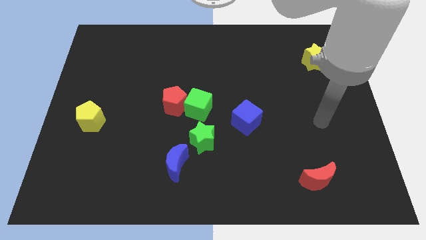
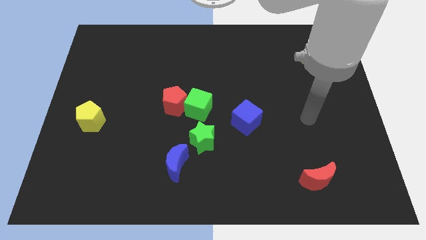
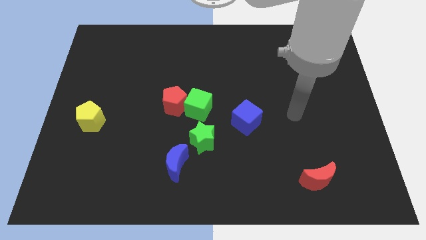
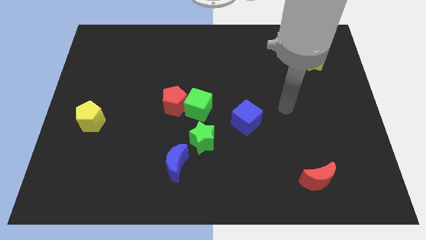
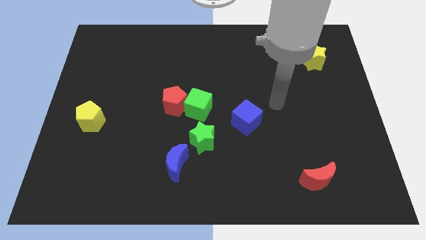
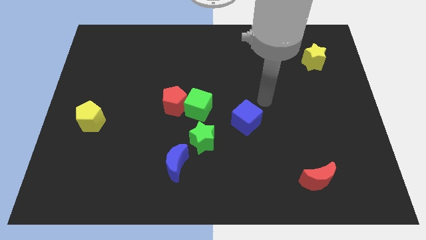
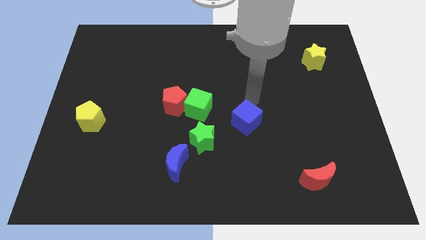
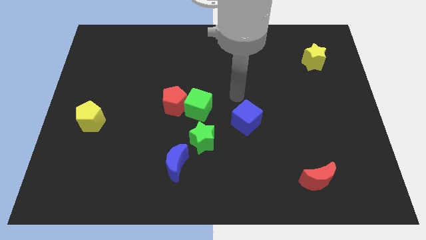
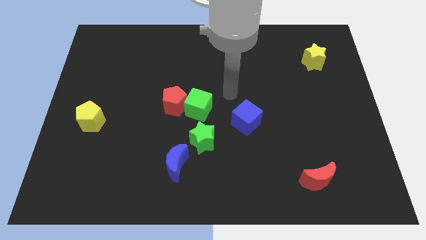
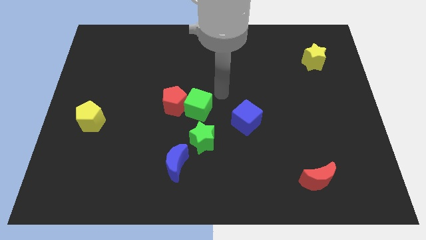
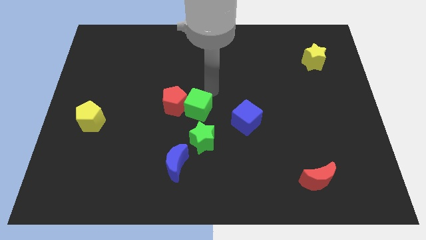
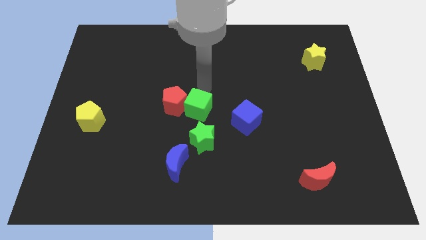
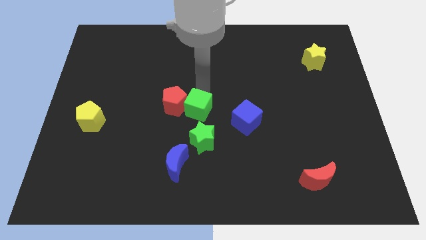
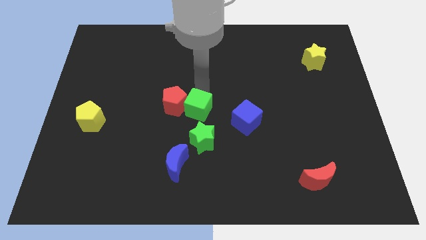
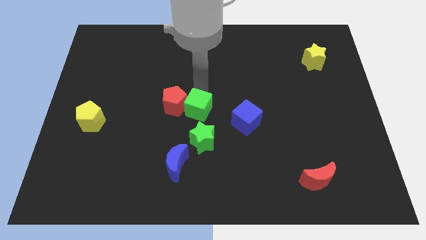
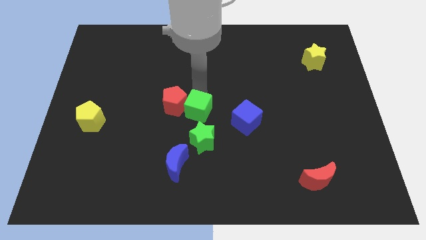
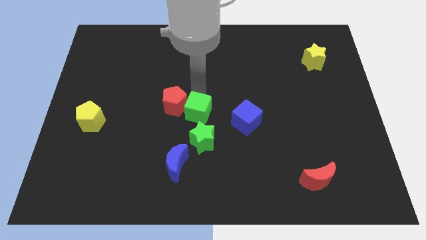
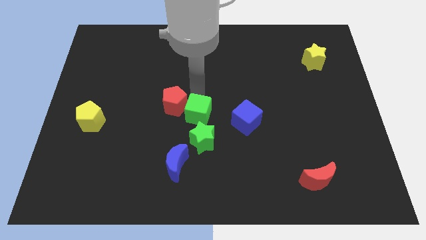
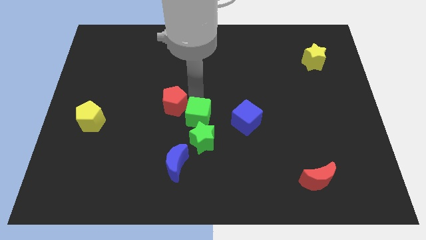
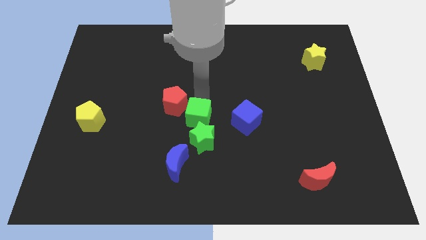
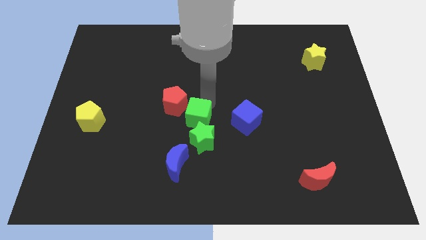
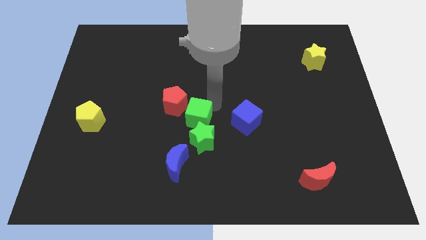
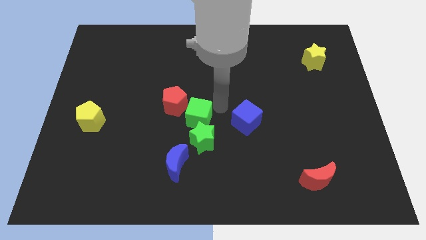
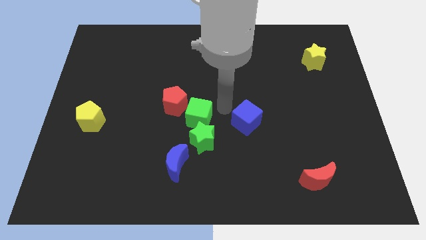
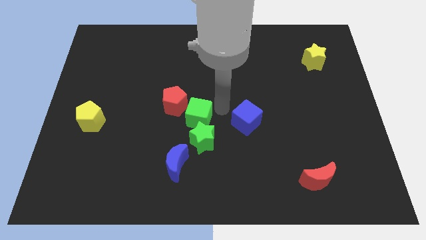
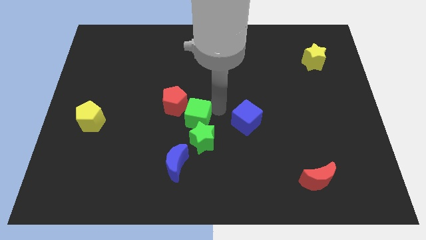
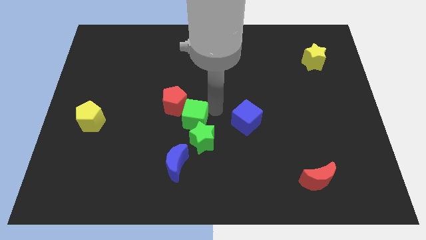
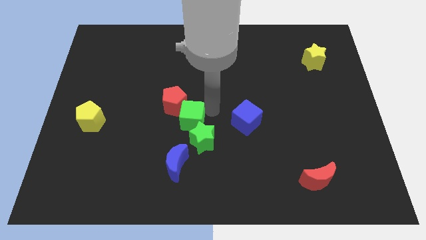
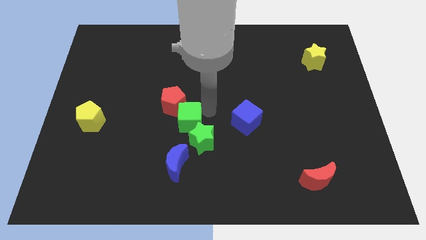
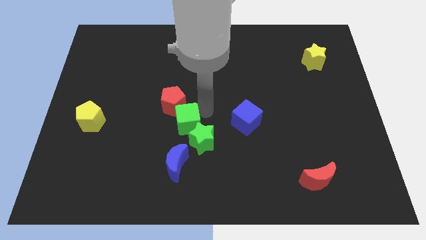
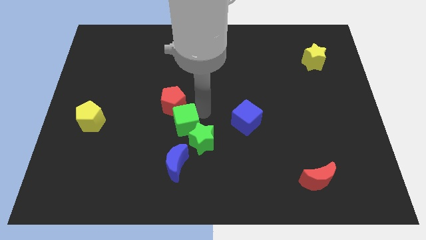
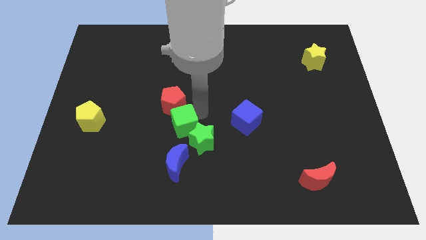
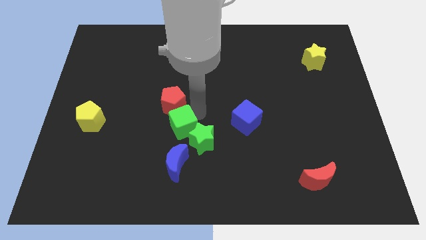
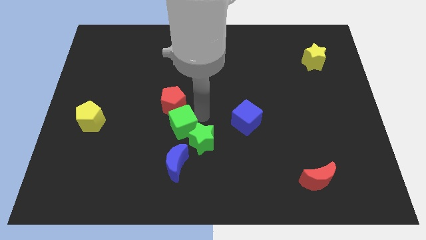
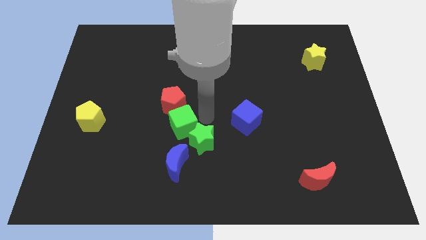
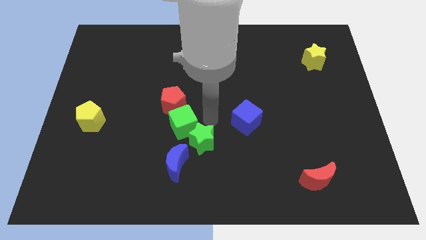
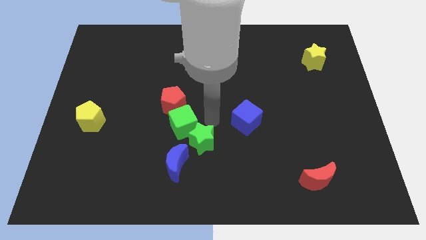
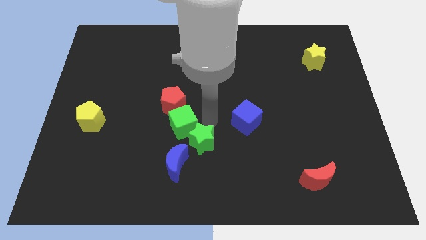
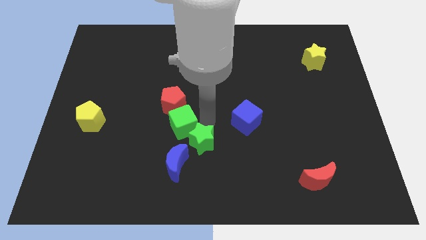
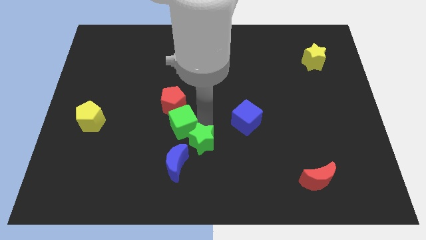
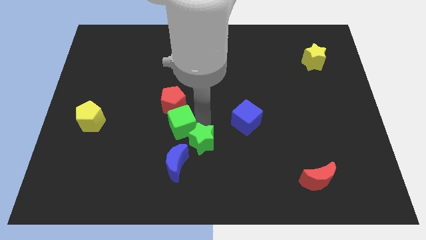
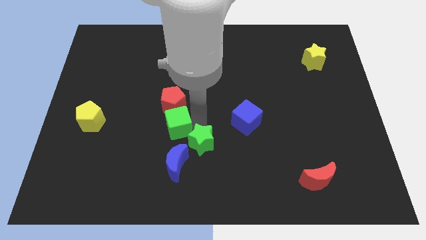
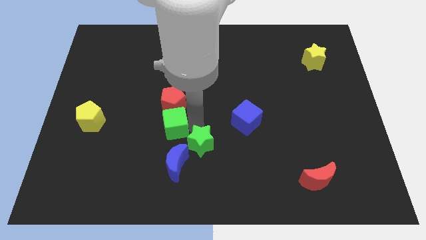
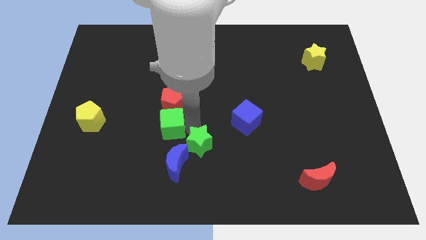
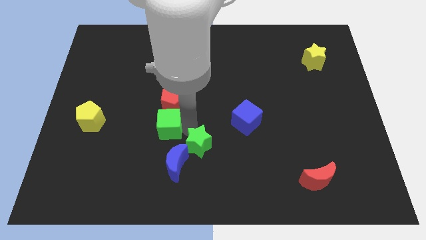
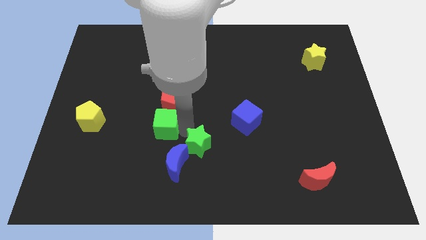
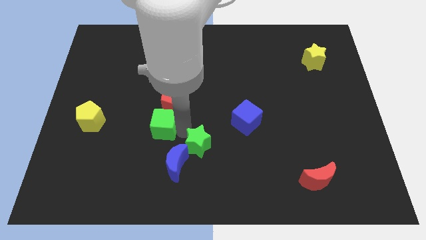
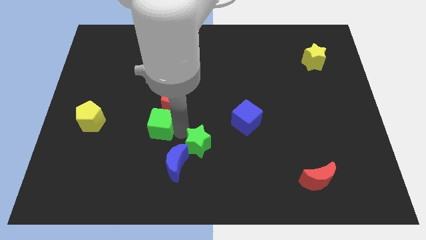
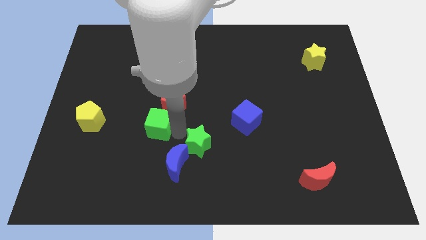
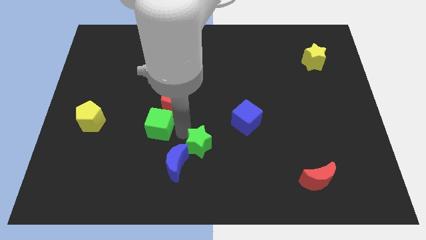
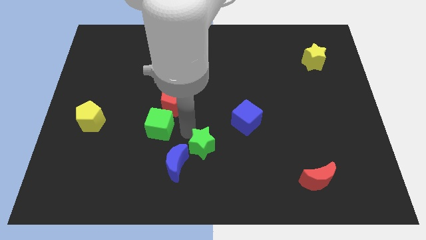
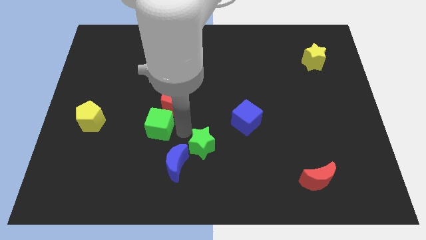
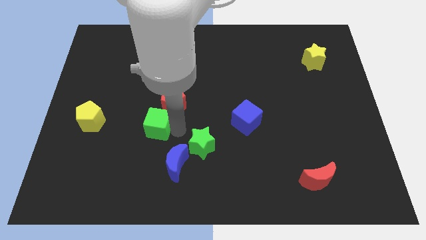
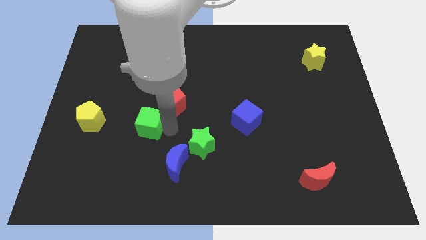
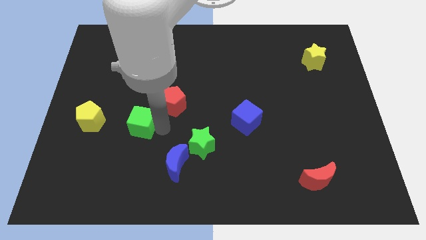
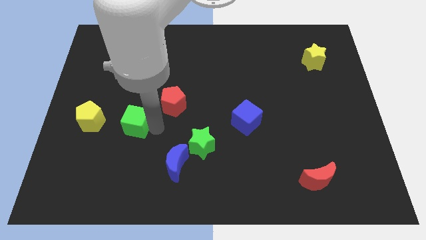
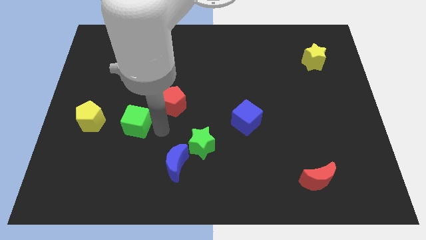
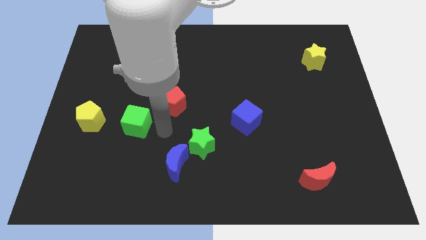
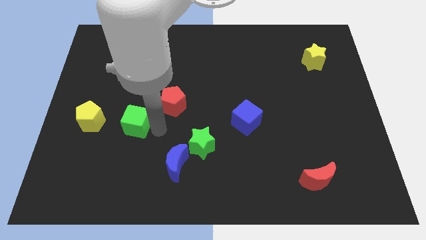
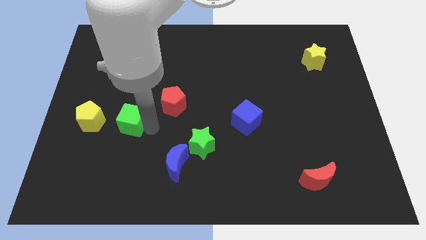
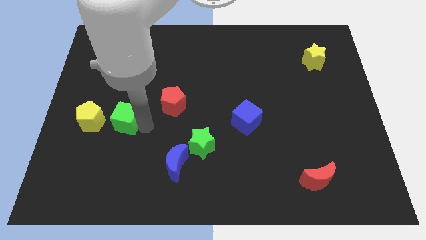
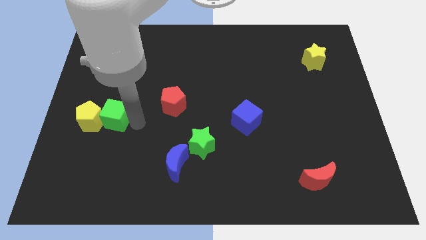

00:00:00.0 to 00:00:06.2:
push the green cube towards the yellow pentagon
